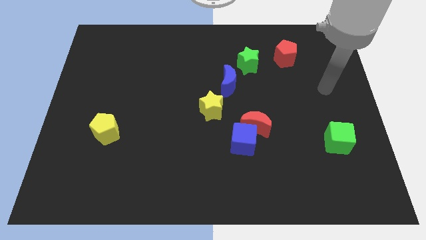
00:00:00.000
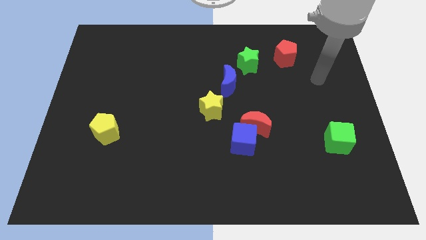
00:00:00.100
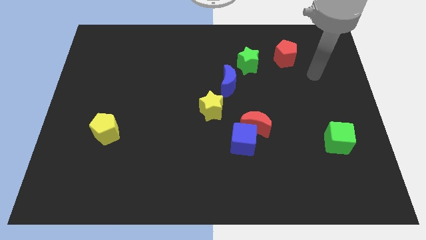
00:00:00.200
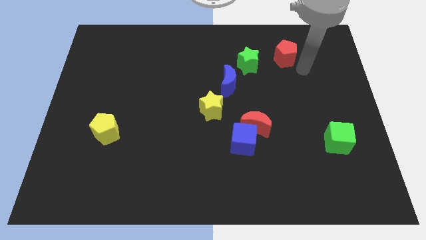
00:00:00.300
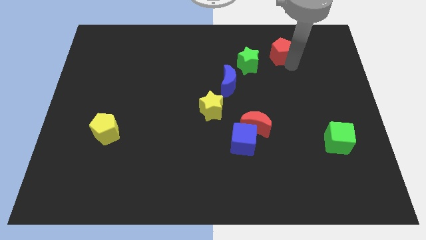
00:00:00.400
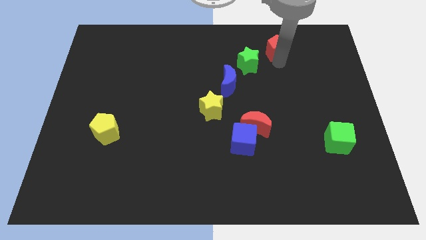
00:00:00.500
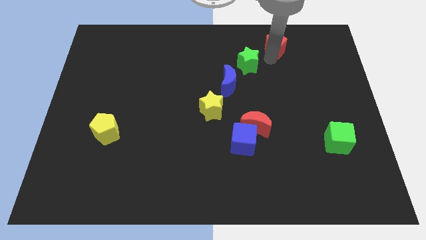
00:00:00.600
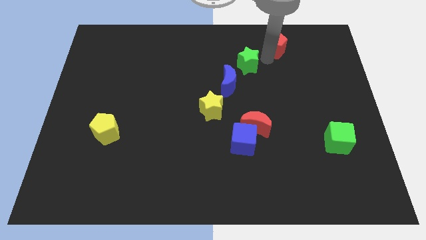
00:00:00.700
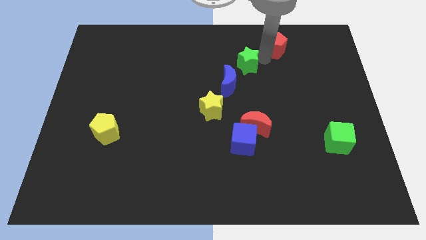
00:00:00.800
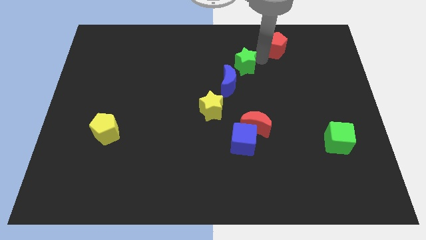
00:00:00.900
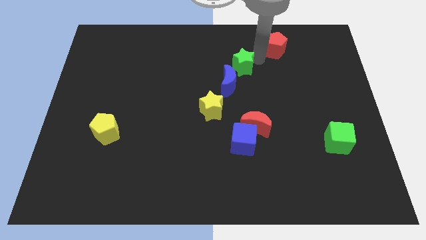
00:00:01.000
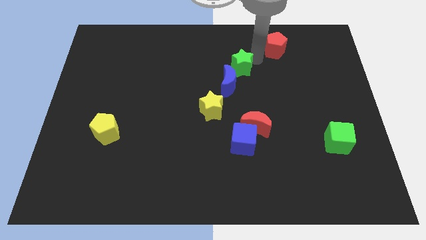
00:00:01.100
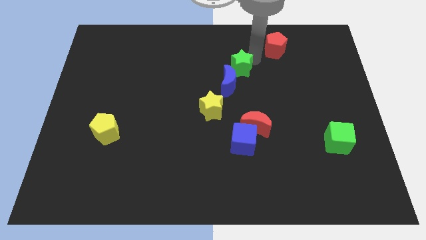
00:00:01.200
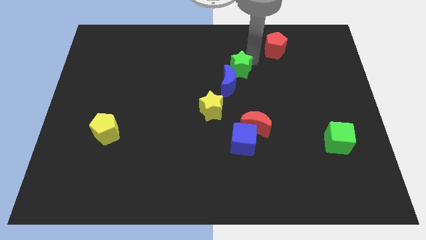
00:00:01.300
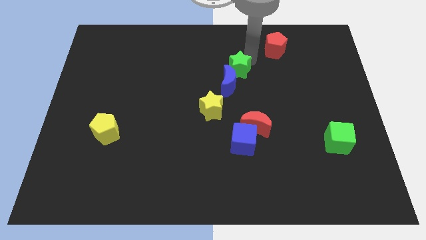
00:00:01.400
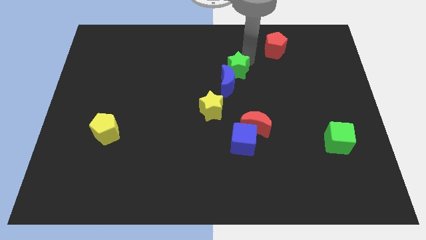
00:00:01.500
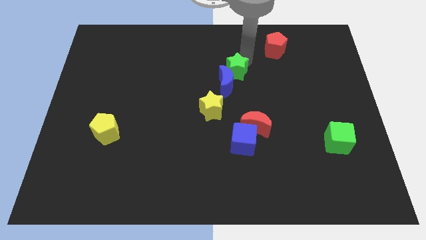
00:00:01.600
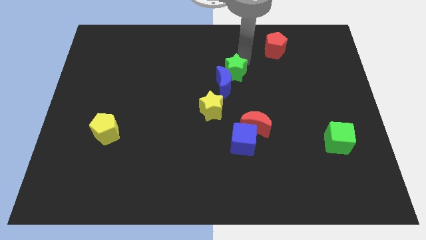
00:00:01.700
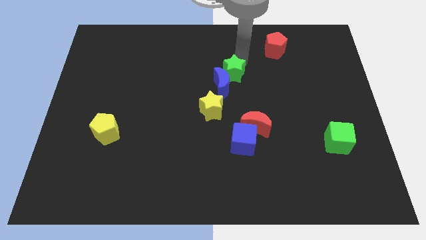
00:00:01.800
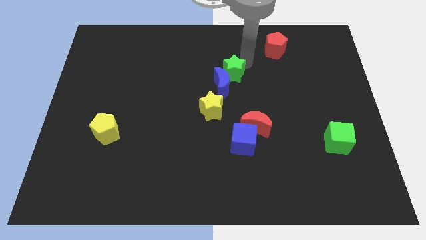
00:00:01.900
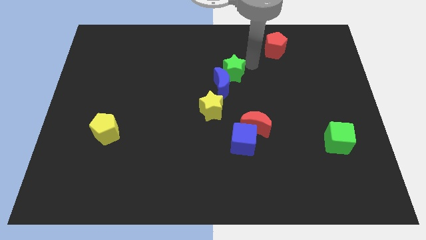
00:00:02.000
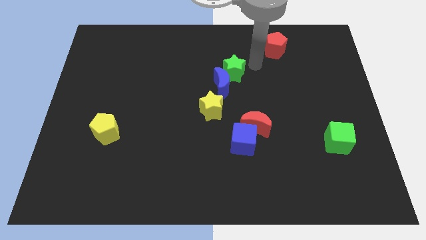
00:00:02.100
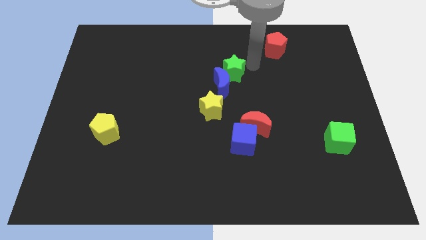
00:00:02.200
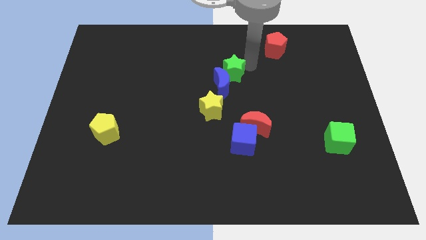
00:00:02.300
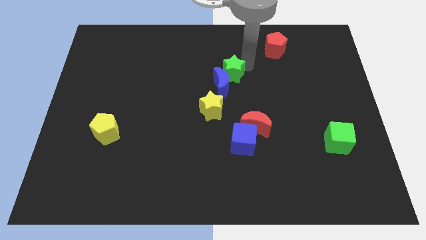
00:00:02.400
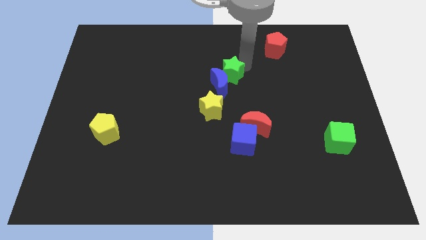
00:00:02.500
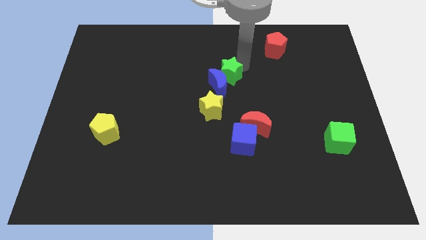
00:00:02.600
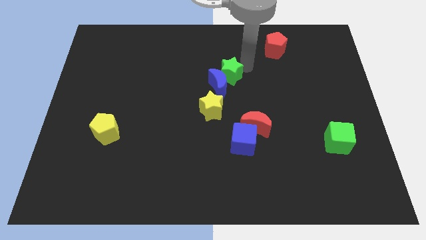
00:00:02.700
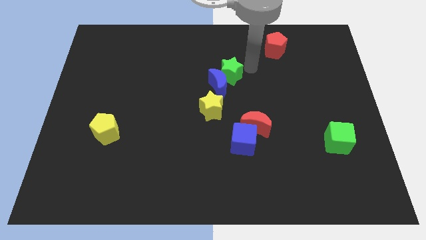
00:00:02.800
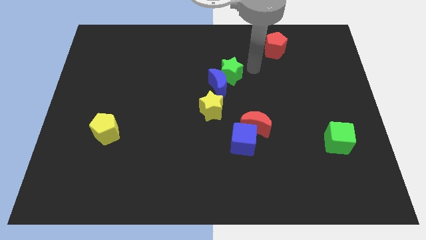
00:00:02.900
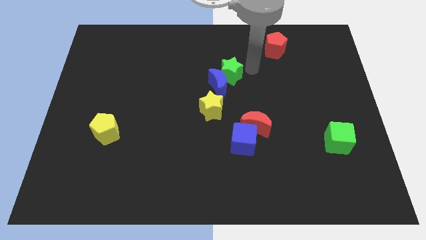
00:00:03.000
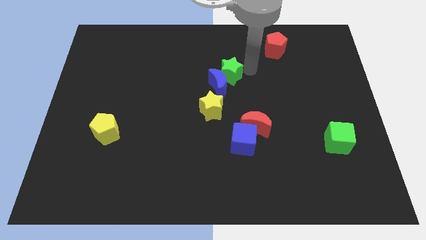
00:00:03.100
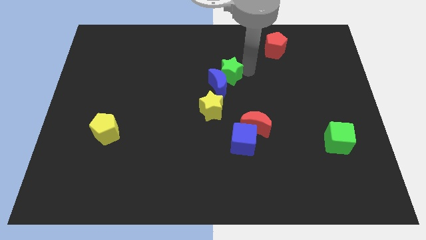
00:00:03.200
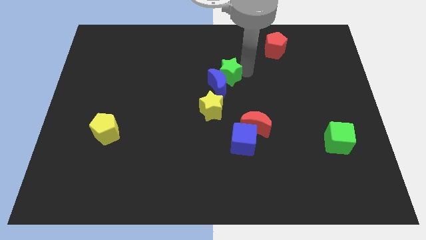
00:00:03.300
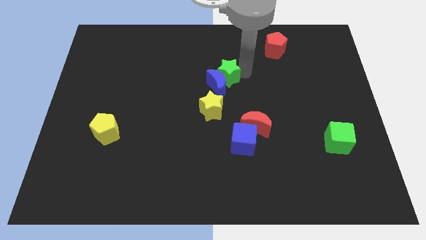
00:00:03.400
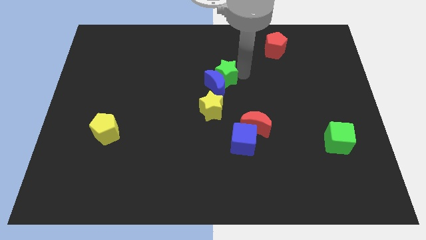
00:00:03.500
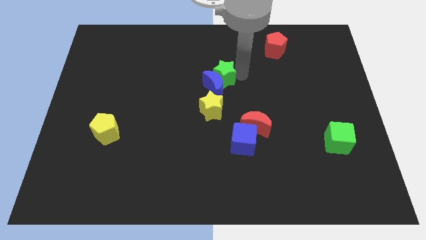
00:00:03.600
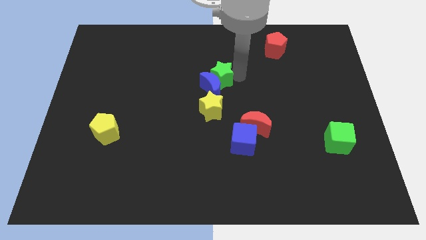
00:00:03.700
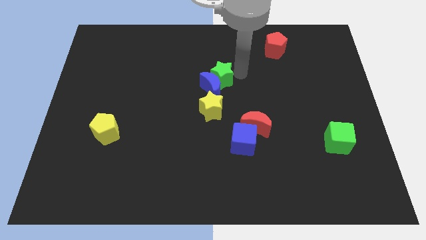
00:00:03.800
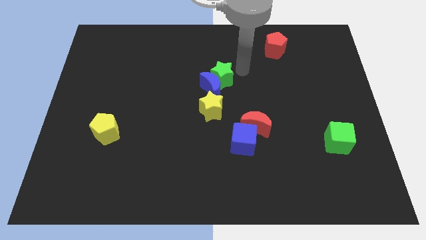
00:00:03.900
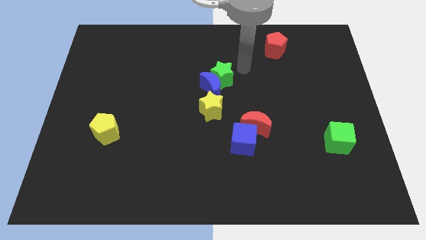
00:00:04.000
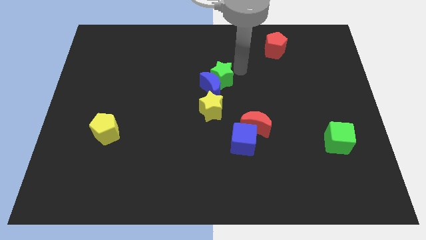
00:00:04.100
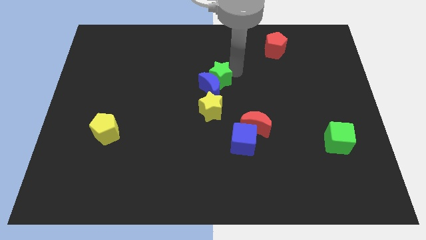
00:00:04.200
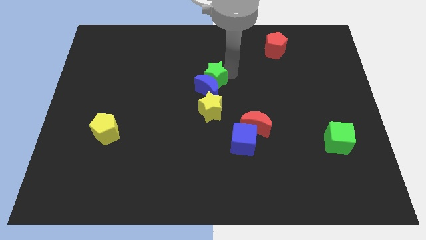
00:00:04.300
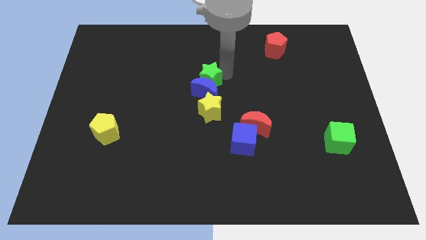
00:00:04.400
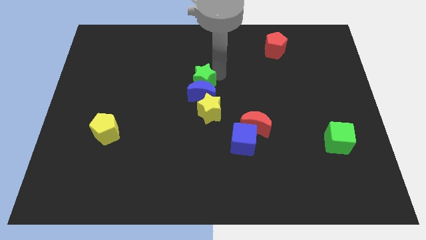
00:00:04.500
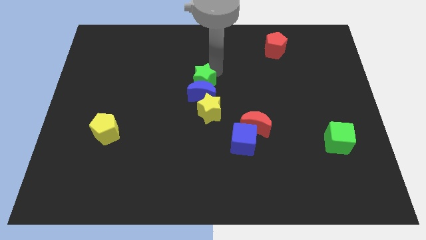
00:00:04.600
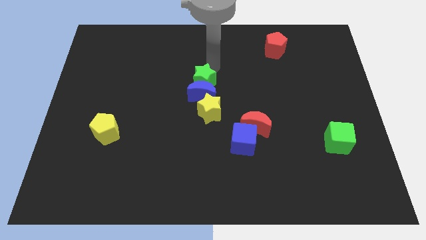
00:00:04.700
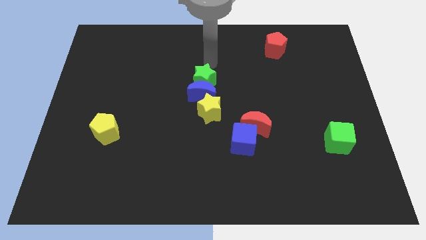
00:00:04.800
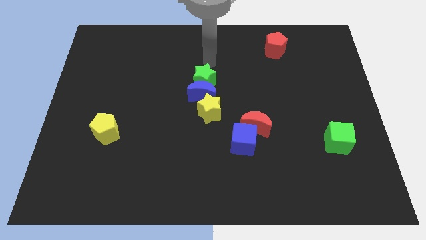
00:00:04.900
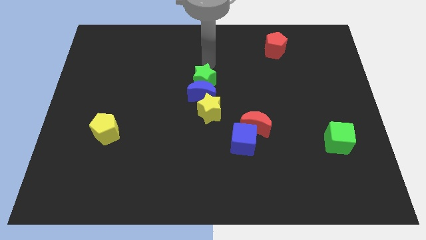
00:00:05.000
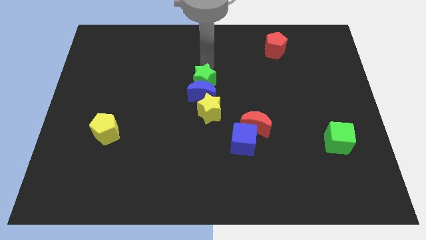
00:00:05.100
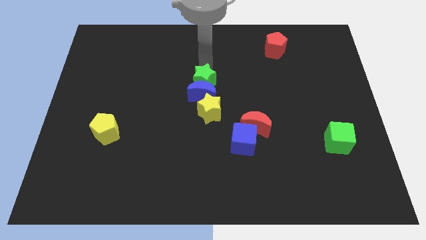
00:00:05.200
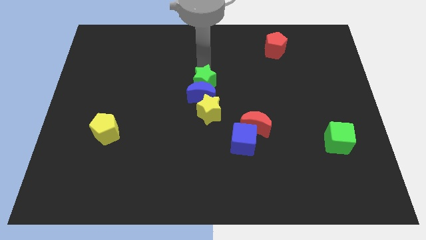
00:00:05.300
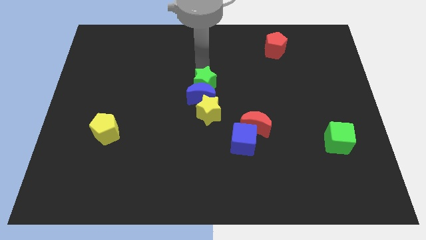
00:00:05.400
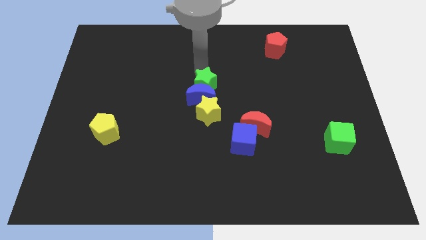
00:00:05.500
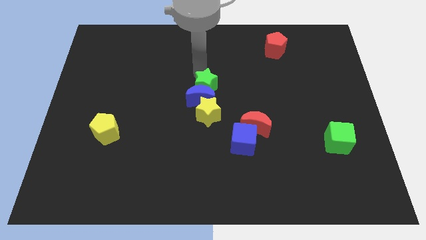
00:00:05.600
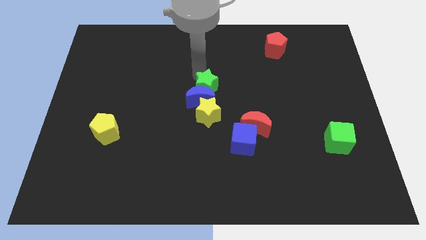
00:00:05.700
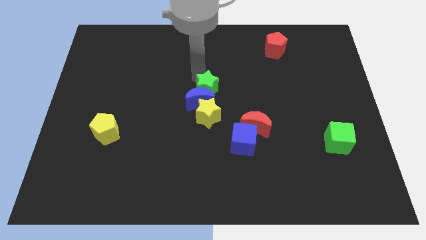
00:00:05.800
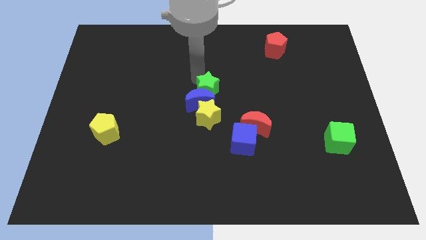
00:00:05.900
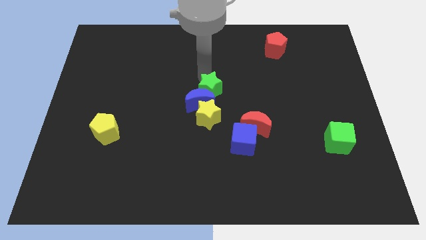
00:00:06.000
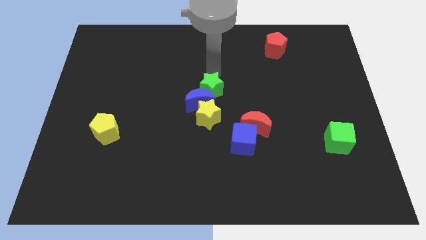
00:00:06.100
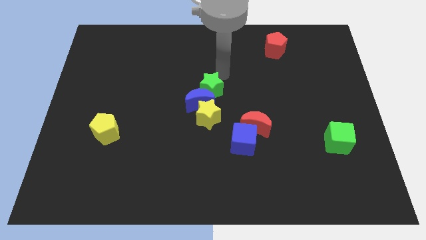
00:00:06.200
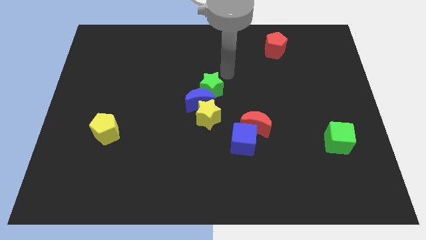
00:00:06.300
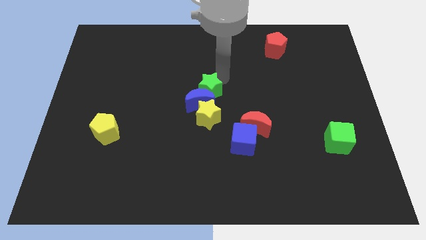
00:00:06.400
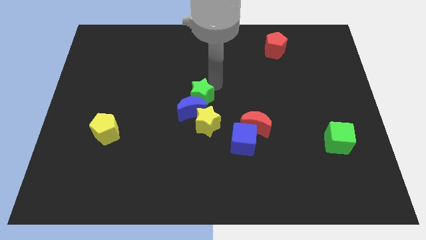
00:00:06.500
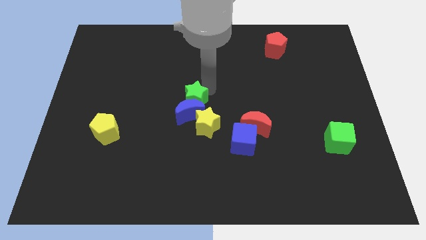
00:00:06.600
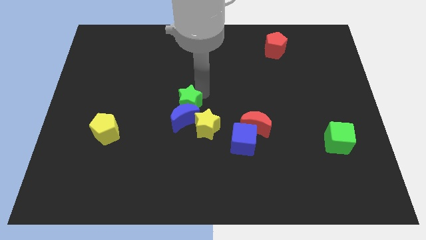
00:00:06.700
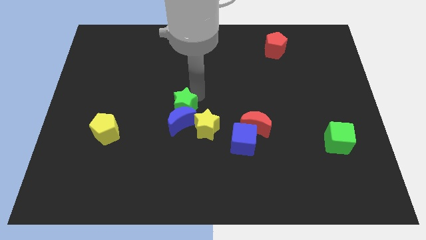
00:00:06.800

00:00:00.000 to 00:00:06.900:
move the green star downwards and to the left diagonally

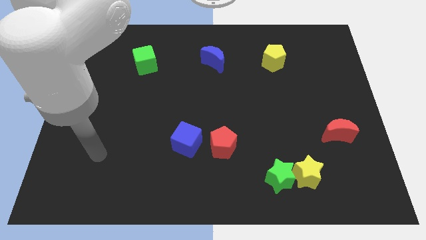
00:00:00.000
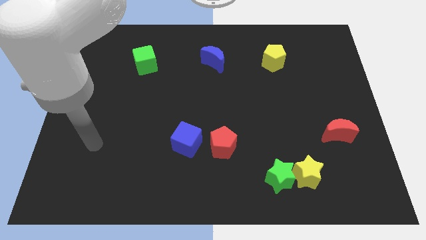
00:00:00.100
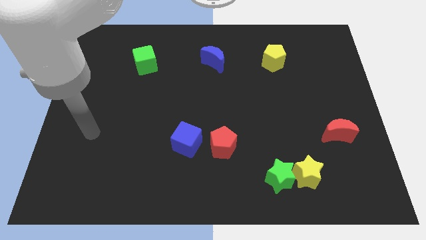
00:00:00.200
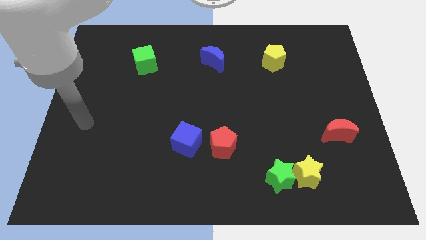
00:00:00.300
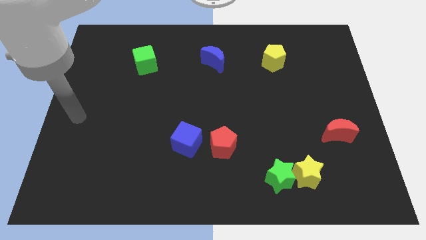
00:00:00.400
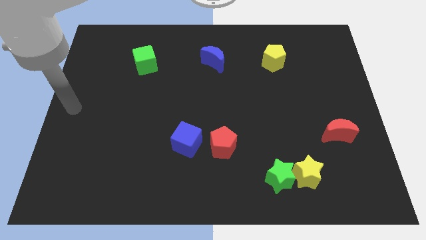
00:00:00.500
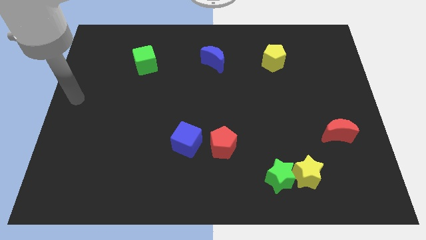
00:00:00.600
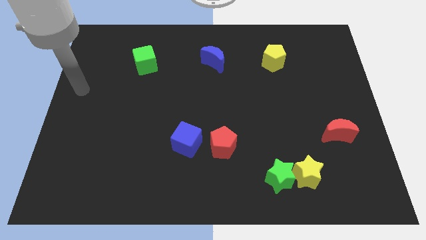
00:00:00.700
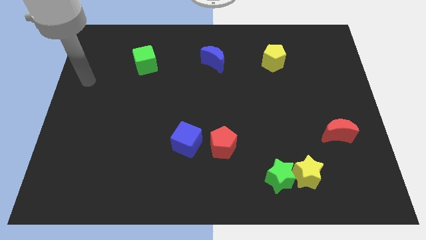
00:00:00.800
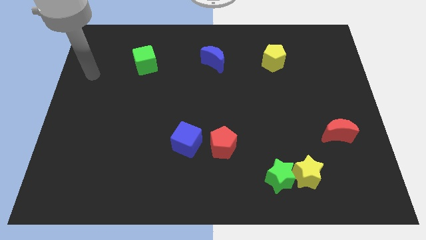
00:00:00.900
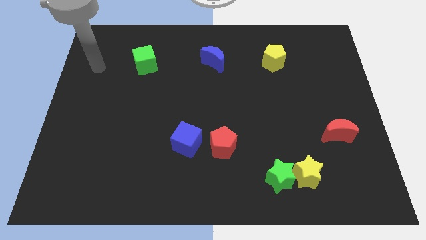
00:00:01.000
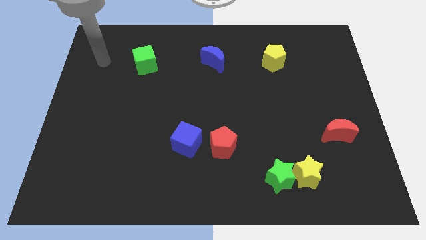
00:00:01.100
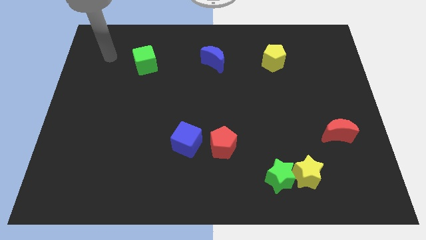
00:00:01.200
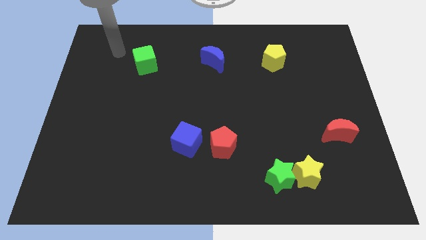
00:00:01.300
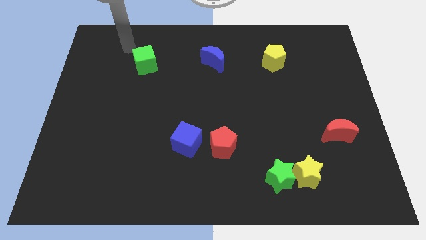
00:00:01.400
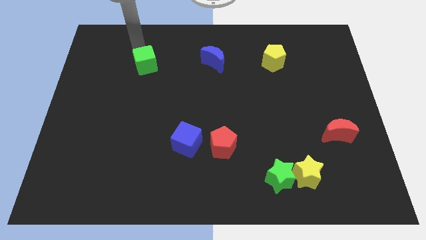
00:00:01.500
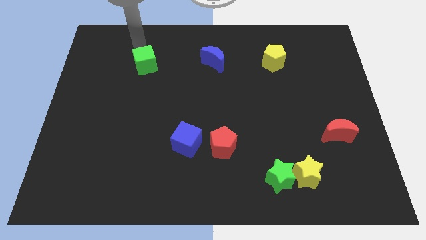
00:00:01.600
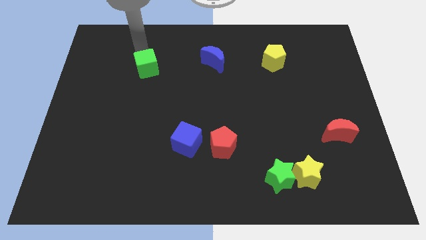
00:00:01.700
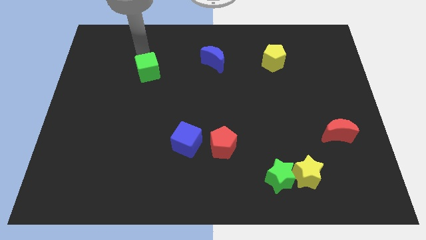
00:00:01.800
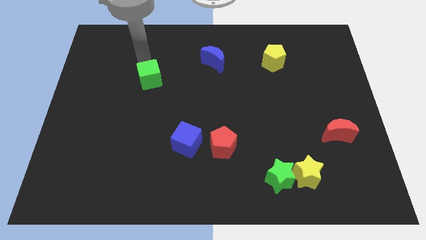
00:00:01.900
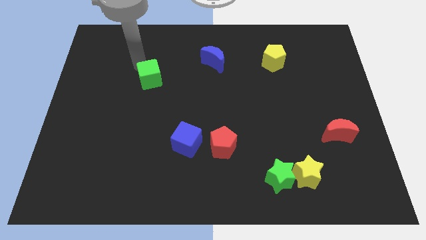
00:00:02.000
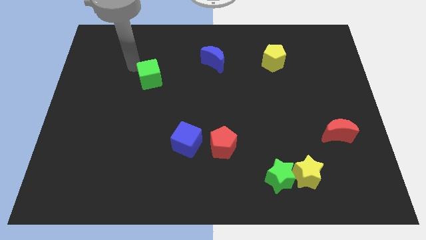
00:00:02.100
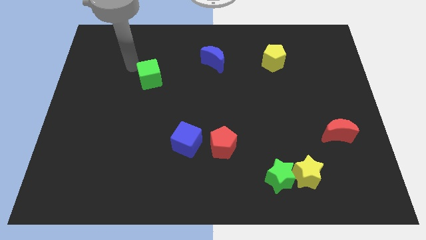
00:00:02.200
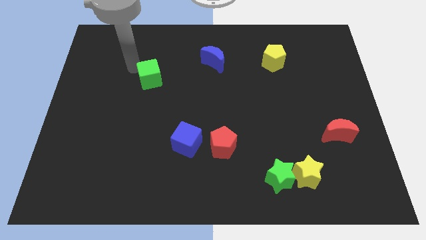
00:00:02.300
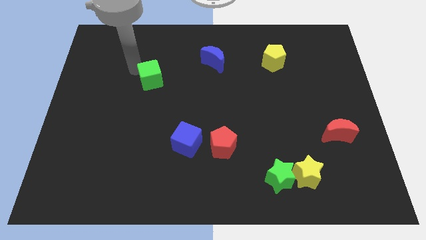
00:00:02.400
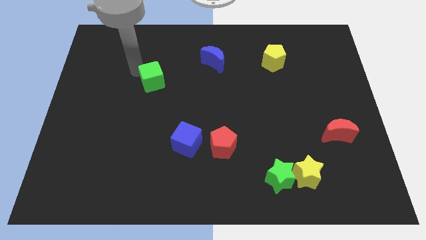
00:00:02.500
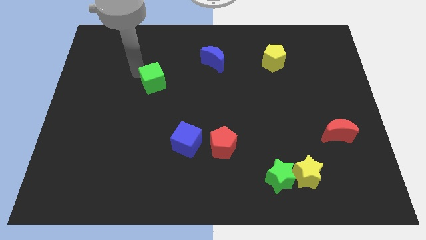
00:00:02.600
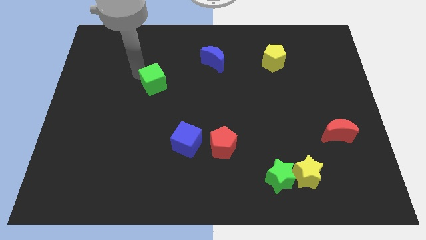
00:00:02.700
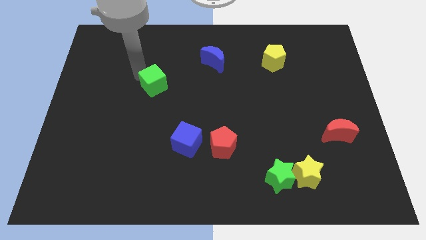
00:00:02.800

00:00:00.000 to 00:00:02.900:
push the green cube diagonally downwards and to the right somewhat
